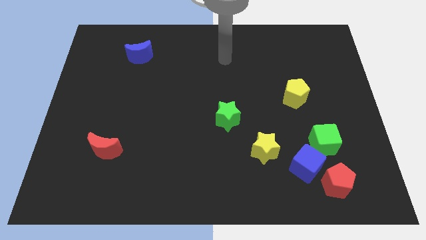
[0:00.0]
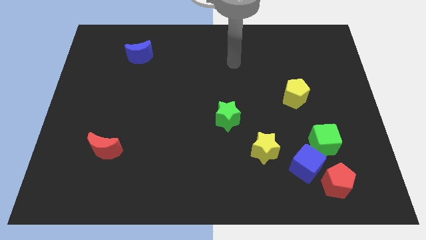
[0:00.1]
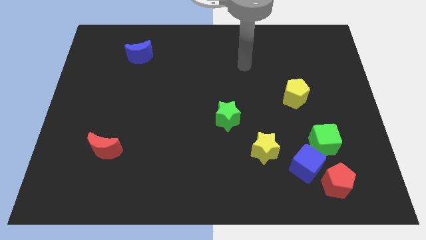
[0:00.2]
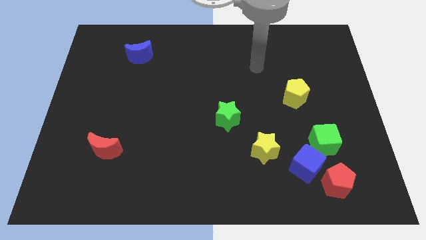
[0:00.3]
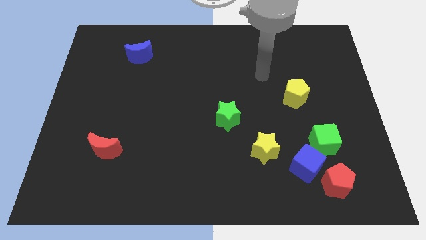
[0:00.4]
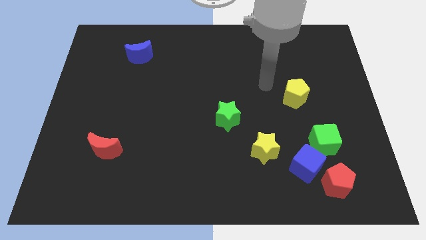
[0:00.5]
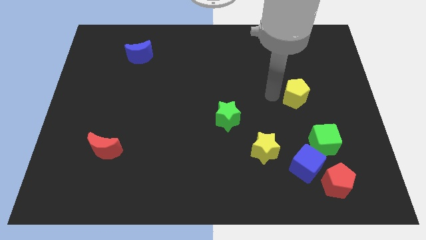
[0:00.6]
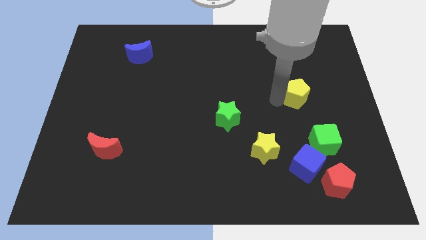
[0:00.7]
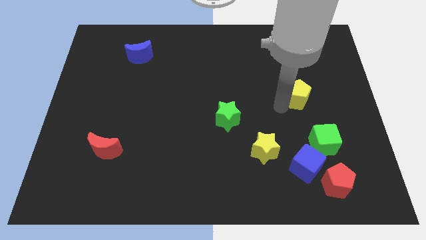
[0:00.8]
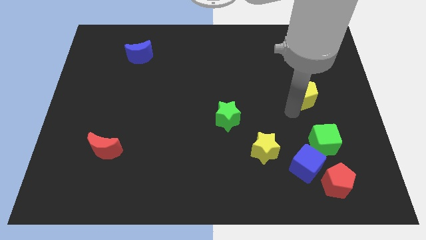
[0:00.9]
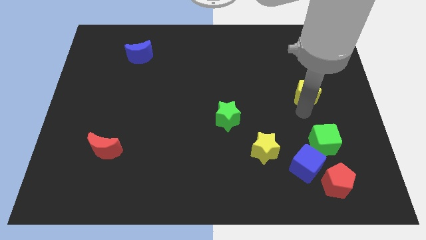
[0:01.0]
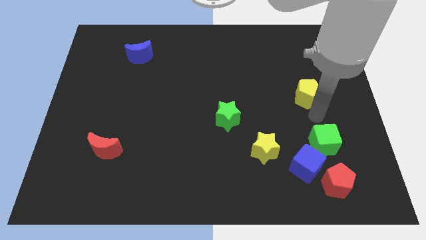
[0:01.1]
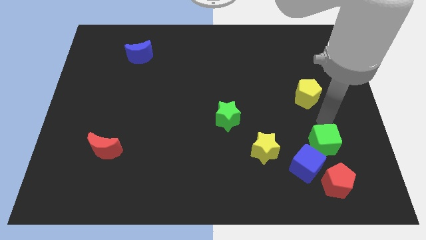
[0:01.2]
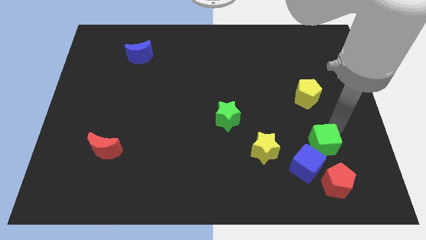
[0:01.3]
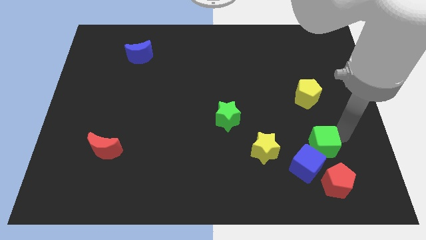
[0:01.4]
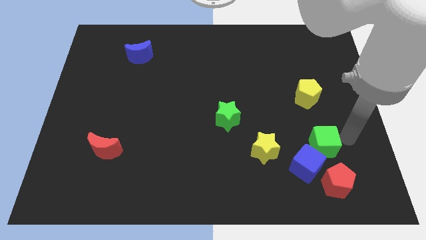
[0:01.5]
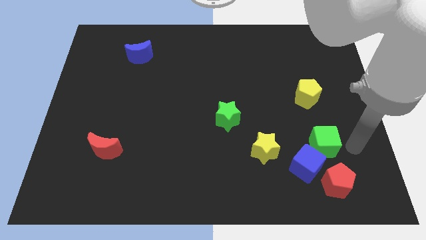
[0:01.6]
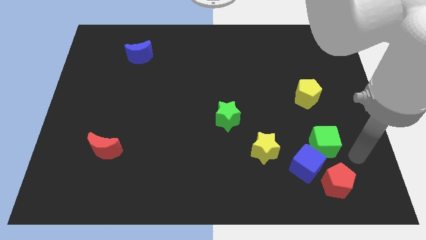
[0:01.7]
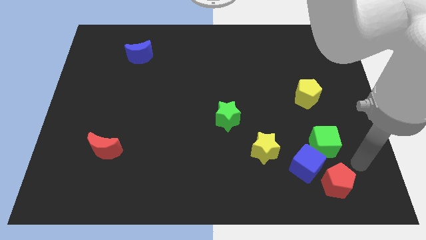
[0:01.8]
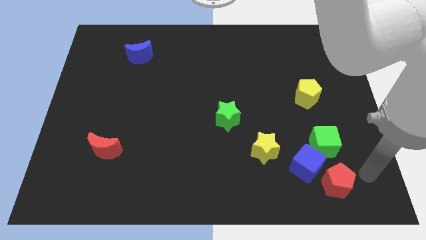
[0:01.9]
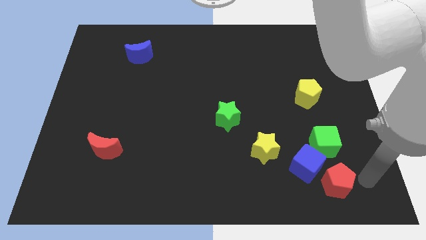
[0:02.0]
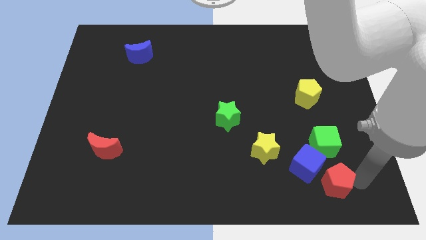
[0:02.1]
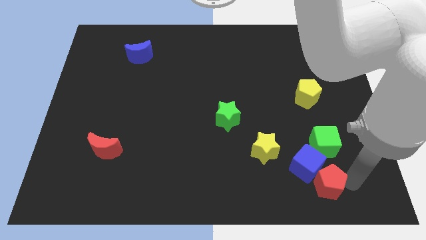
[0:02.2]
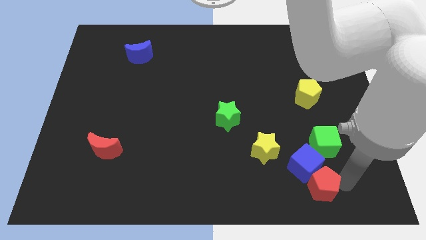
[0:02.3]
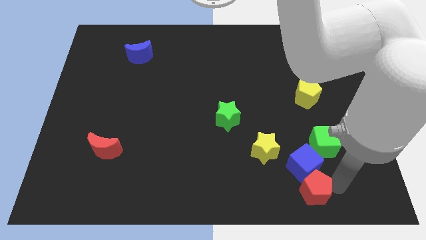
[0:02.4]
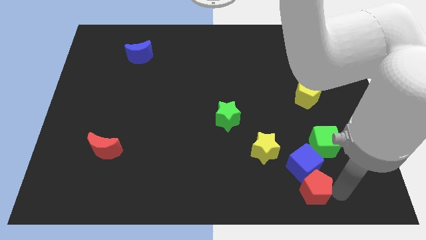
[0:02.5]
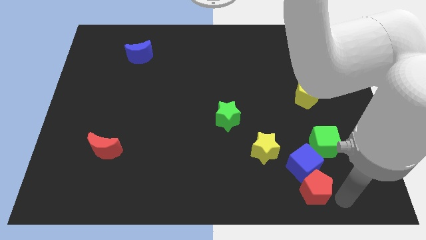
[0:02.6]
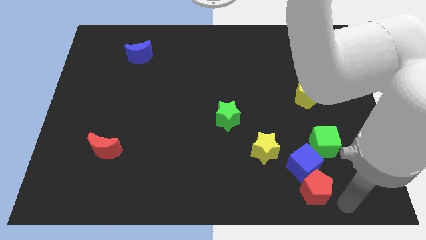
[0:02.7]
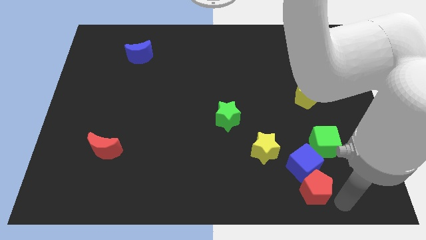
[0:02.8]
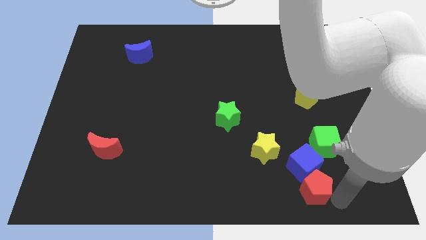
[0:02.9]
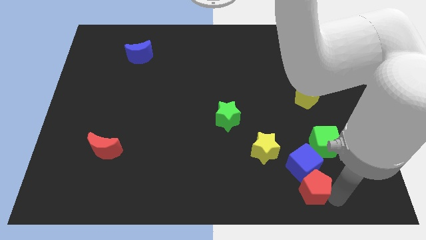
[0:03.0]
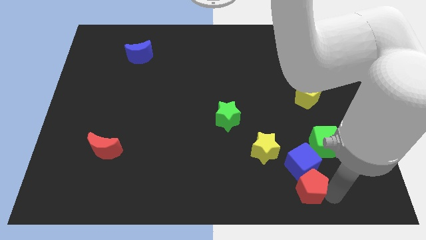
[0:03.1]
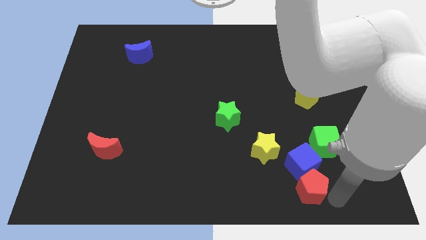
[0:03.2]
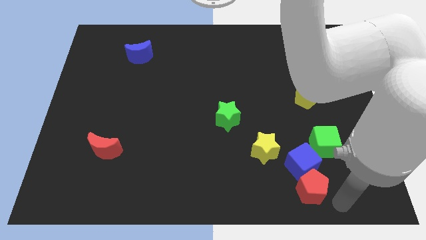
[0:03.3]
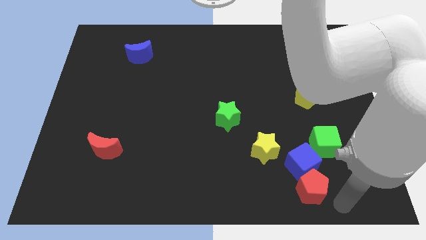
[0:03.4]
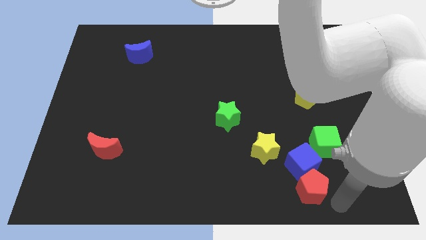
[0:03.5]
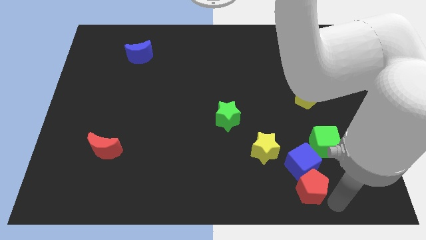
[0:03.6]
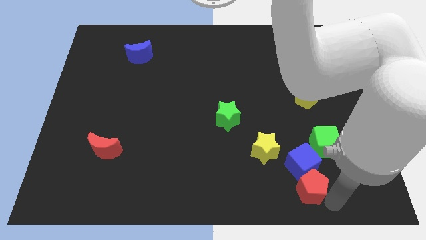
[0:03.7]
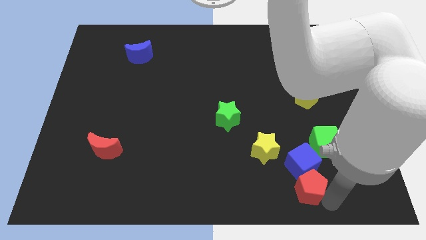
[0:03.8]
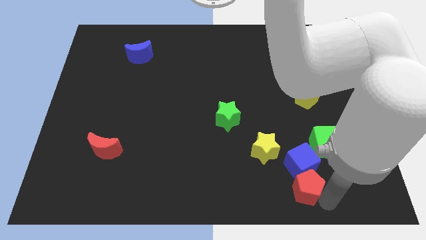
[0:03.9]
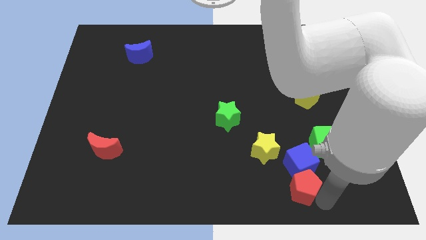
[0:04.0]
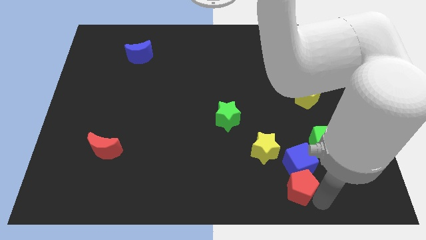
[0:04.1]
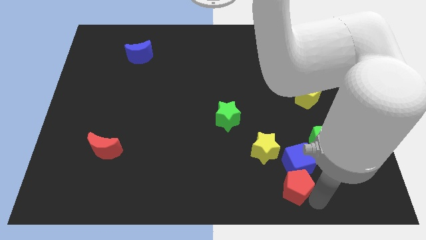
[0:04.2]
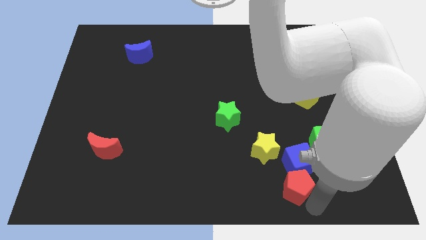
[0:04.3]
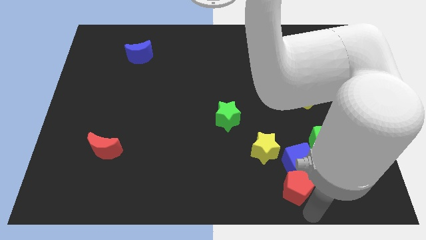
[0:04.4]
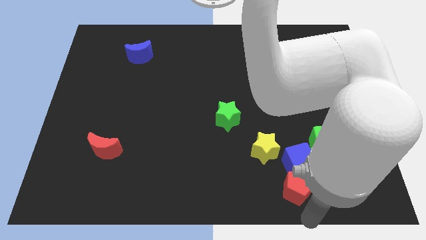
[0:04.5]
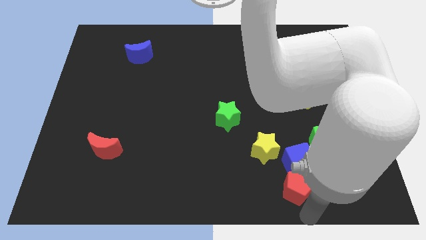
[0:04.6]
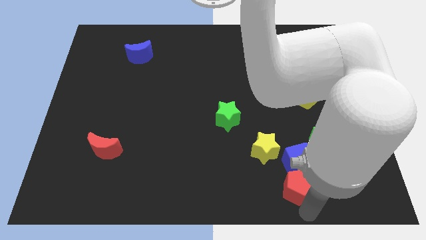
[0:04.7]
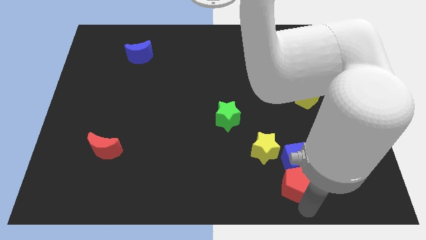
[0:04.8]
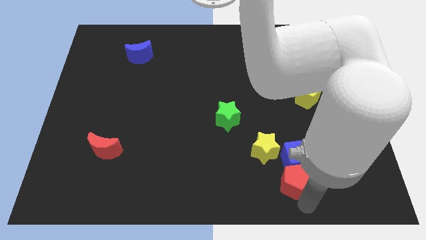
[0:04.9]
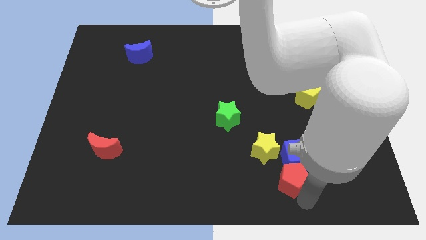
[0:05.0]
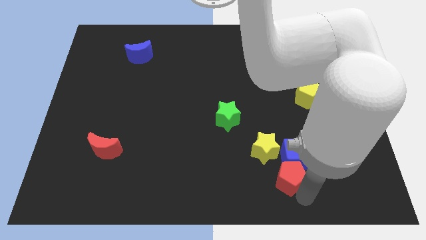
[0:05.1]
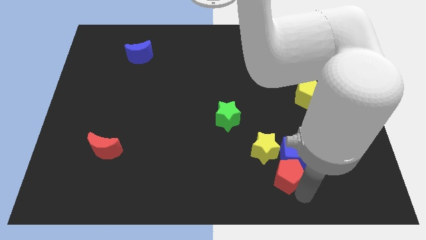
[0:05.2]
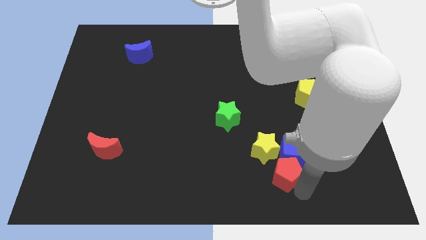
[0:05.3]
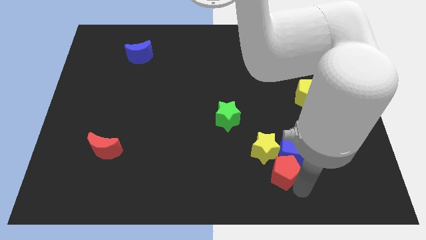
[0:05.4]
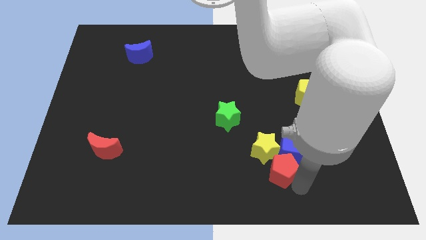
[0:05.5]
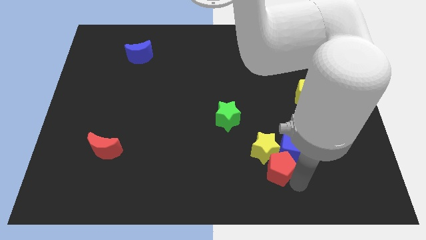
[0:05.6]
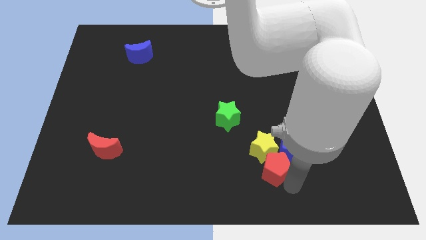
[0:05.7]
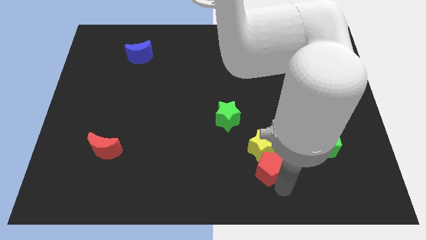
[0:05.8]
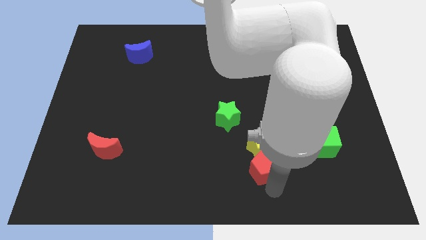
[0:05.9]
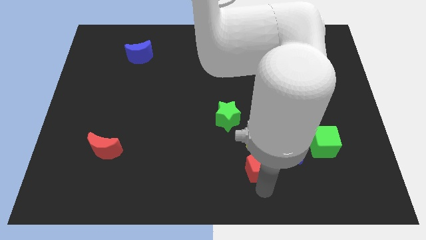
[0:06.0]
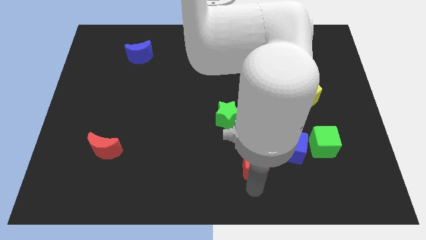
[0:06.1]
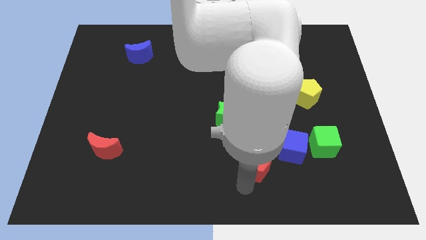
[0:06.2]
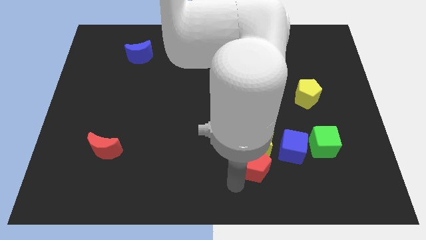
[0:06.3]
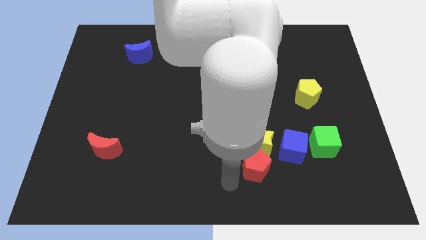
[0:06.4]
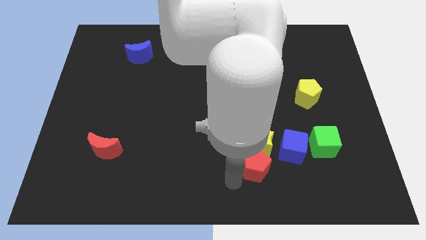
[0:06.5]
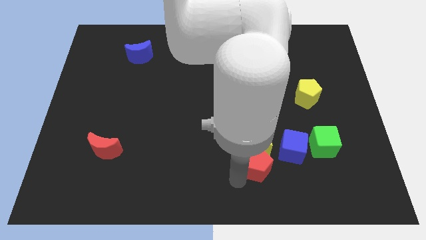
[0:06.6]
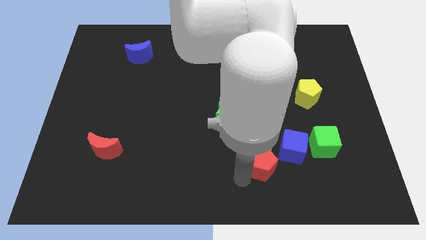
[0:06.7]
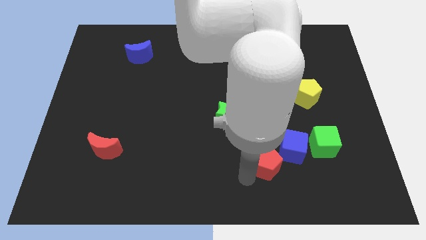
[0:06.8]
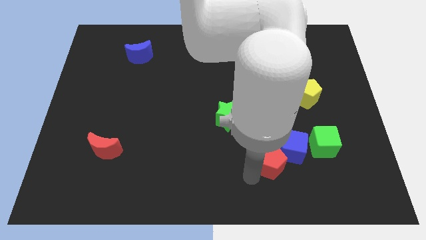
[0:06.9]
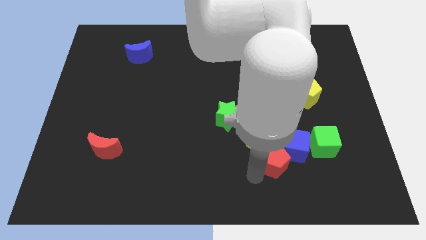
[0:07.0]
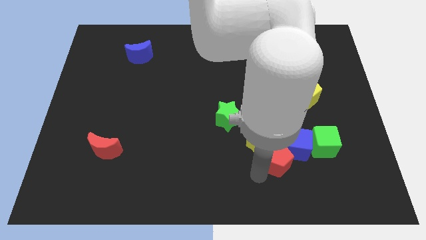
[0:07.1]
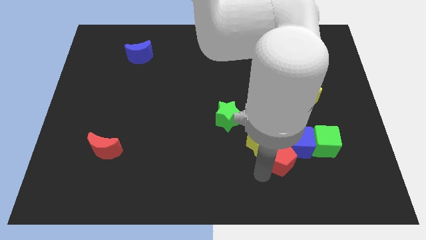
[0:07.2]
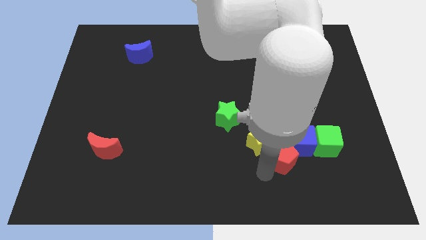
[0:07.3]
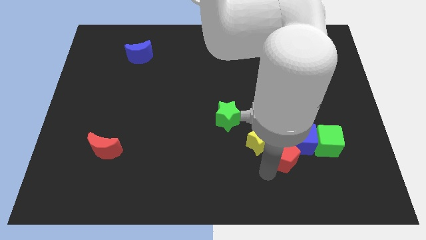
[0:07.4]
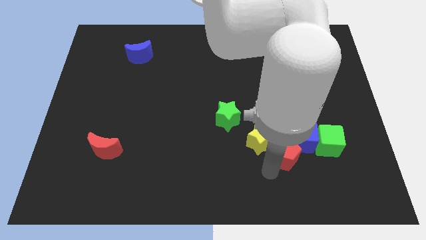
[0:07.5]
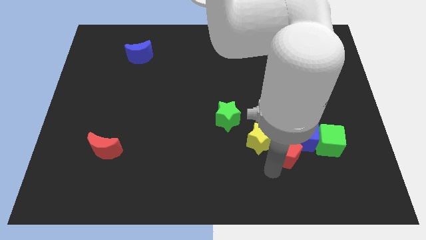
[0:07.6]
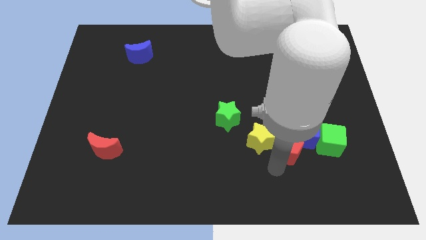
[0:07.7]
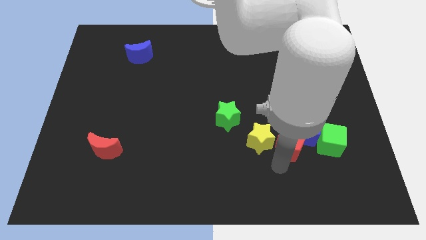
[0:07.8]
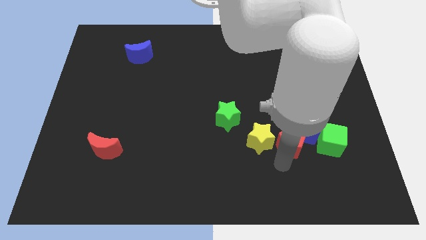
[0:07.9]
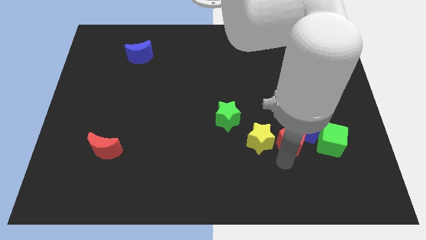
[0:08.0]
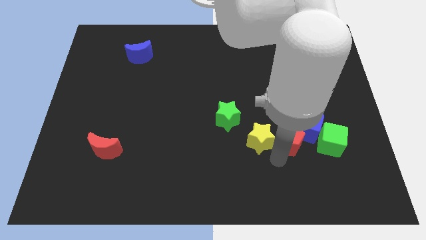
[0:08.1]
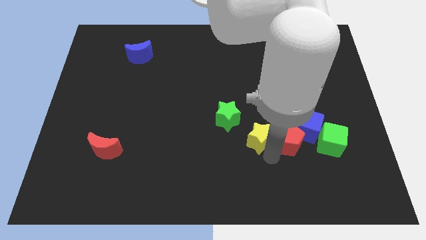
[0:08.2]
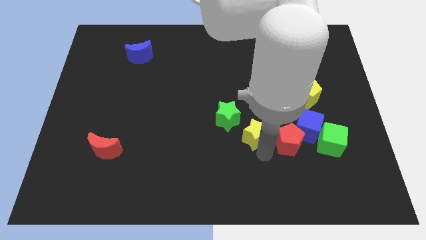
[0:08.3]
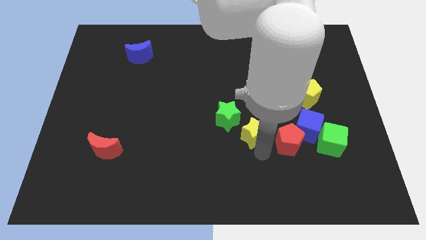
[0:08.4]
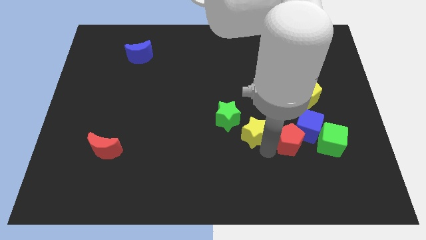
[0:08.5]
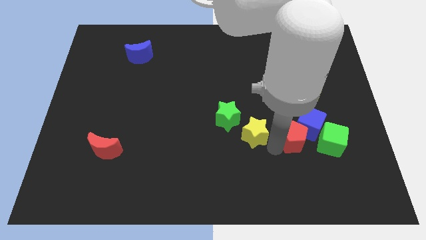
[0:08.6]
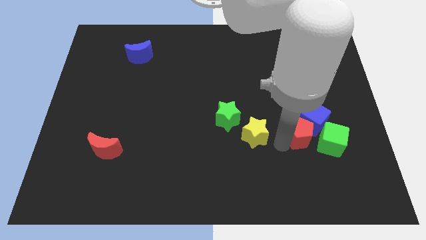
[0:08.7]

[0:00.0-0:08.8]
push the red pentagon to the bottom of the yellow pentagon
